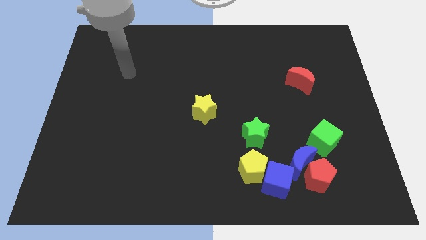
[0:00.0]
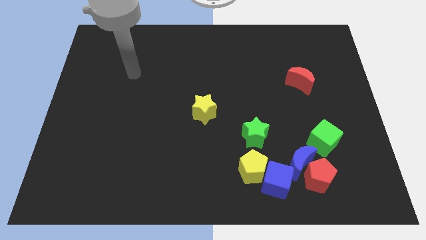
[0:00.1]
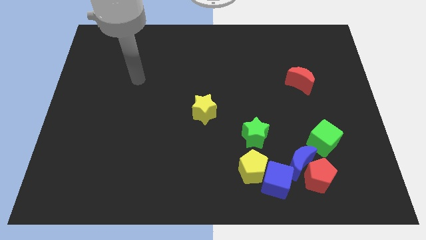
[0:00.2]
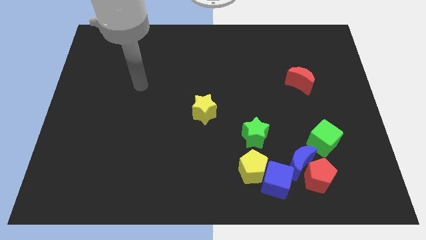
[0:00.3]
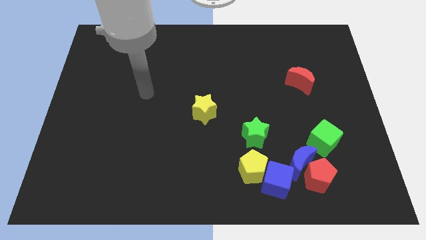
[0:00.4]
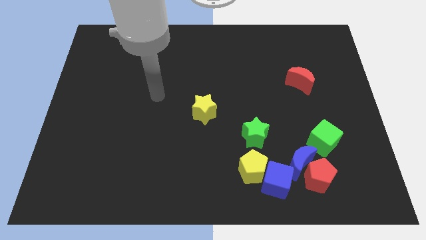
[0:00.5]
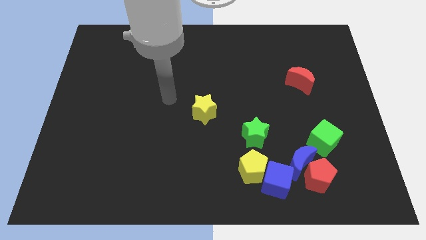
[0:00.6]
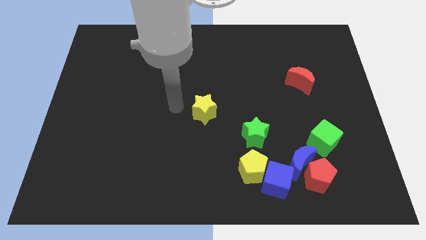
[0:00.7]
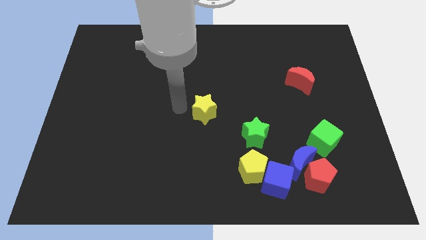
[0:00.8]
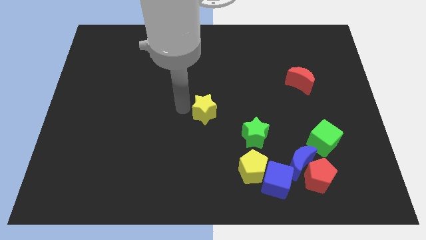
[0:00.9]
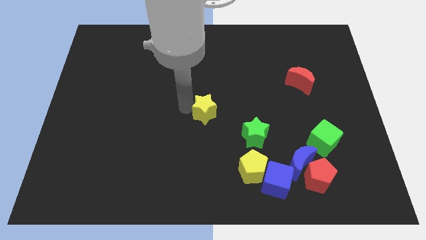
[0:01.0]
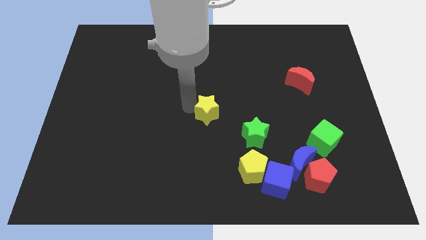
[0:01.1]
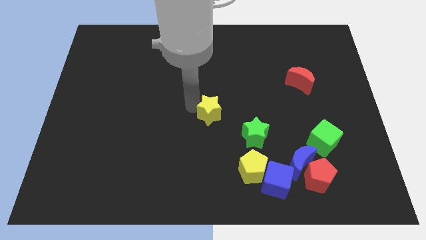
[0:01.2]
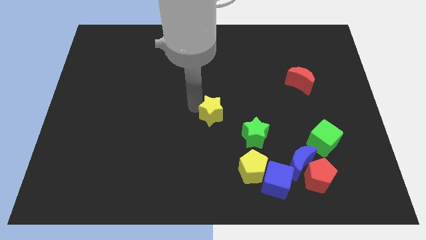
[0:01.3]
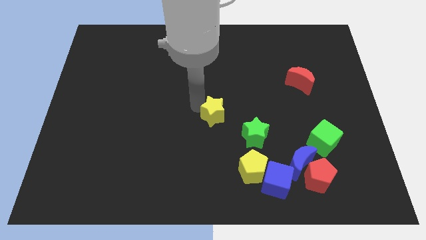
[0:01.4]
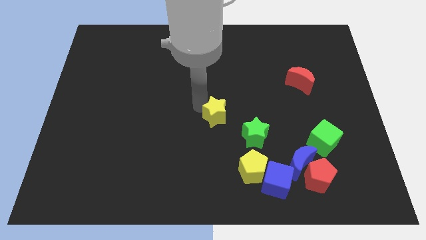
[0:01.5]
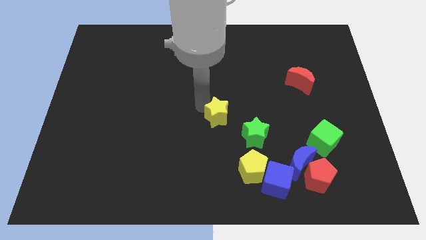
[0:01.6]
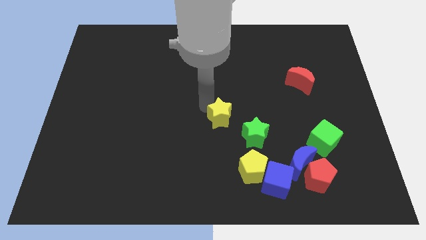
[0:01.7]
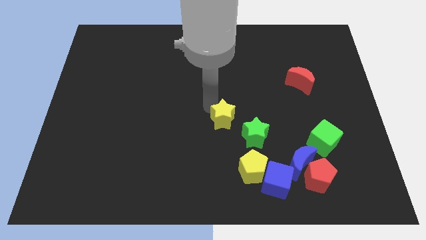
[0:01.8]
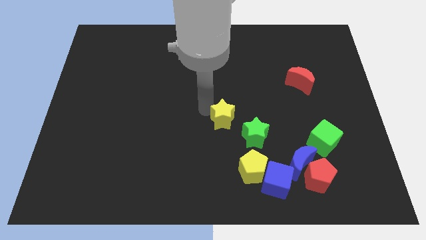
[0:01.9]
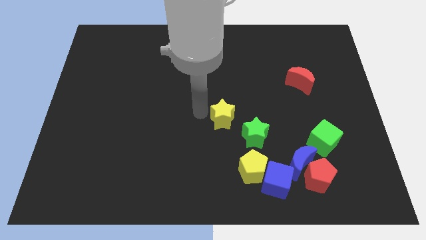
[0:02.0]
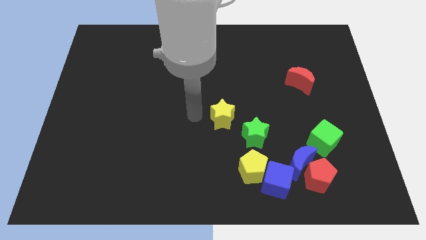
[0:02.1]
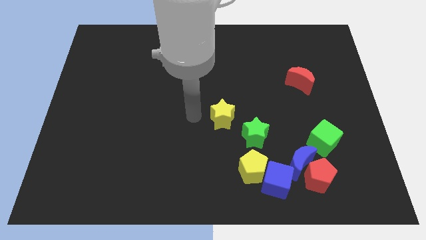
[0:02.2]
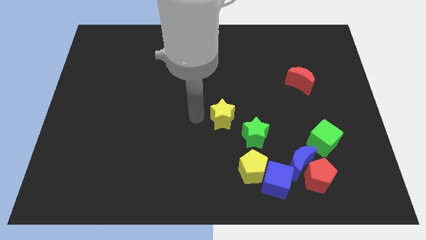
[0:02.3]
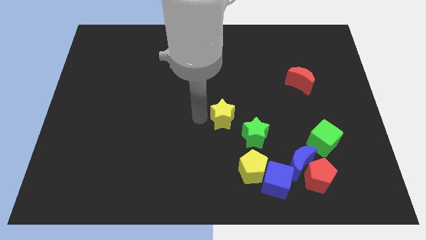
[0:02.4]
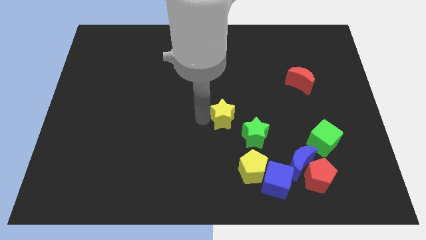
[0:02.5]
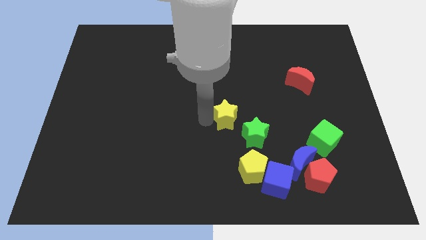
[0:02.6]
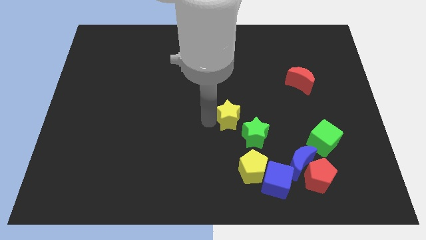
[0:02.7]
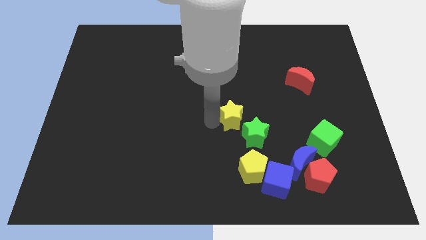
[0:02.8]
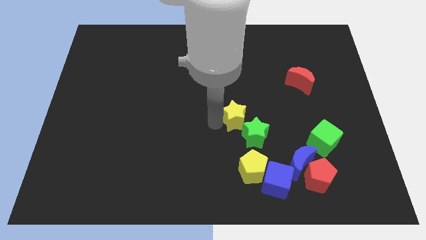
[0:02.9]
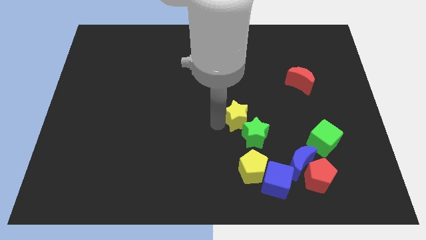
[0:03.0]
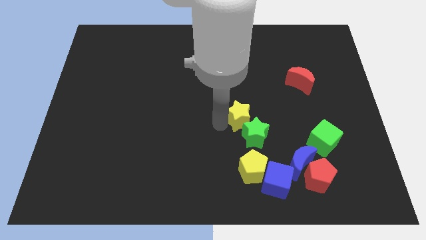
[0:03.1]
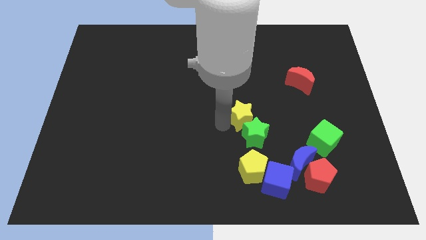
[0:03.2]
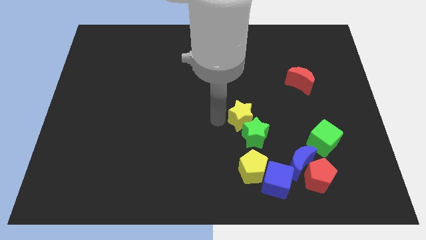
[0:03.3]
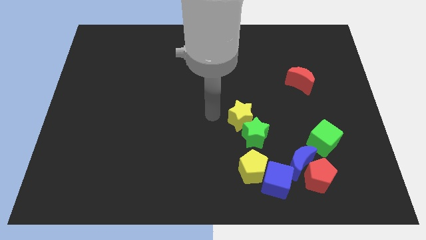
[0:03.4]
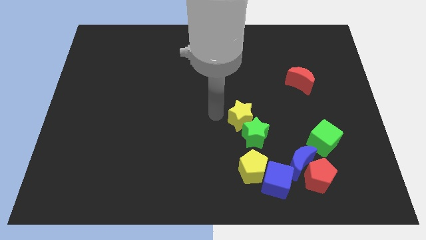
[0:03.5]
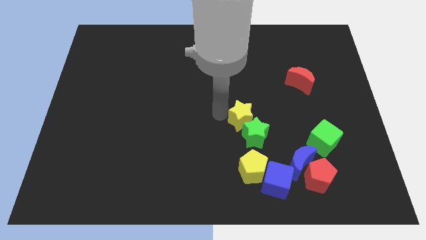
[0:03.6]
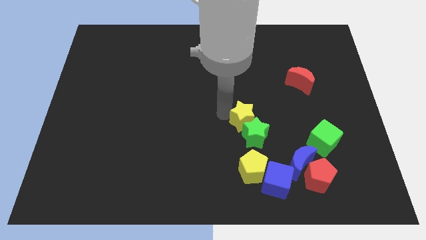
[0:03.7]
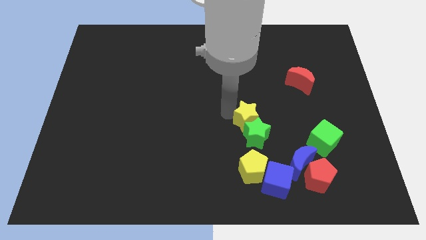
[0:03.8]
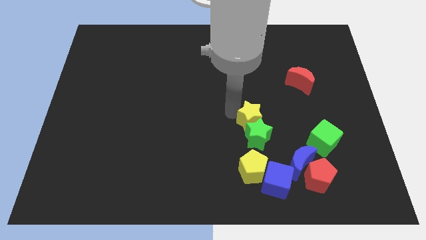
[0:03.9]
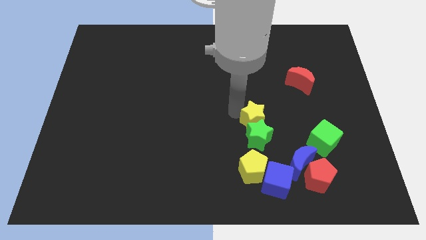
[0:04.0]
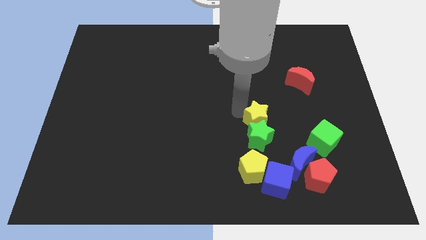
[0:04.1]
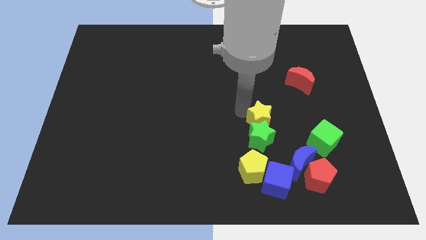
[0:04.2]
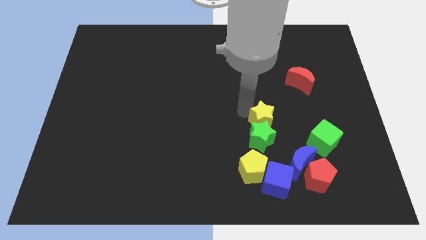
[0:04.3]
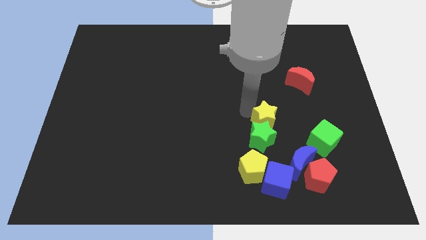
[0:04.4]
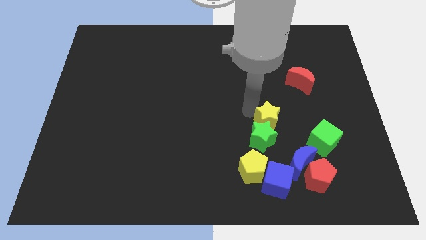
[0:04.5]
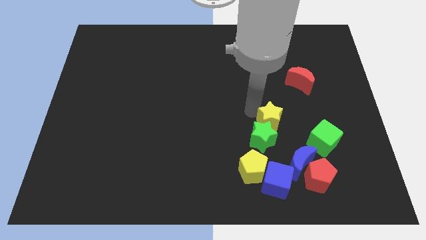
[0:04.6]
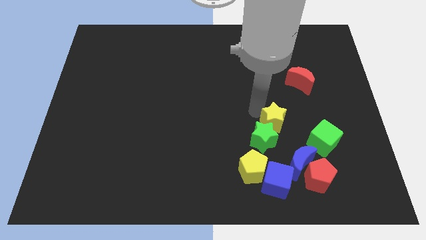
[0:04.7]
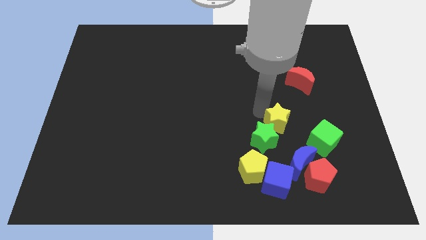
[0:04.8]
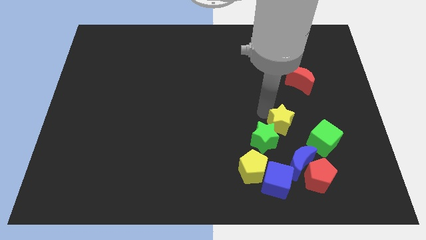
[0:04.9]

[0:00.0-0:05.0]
slide the yellow star to the right side of the green star

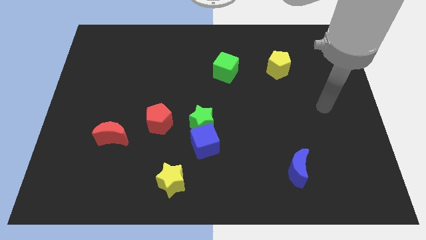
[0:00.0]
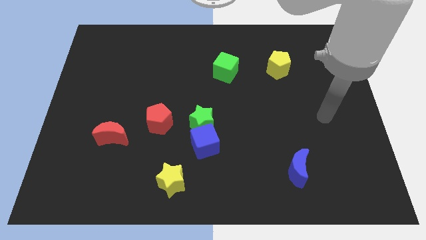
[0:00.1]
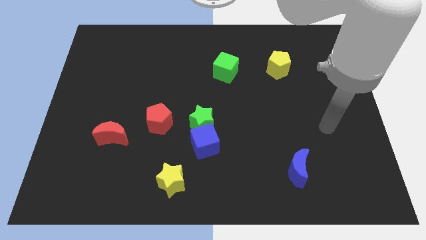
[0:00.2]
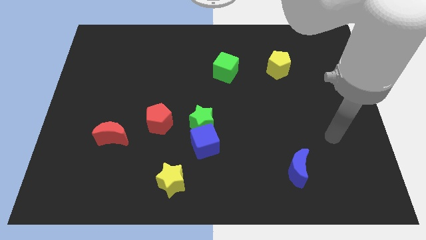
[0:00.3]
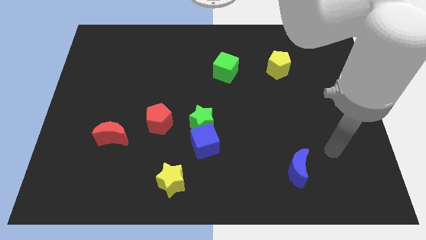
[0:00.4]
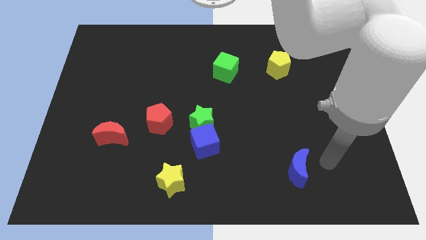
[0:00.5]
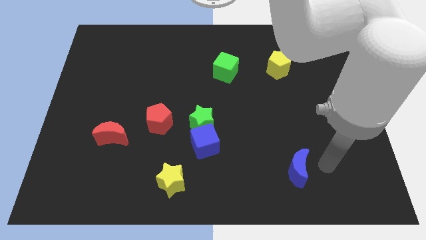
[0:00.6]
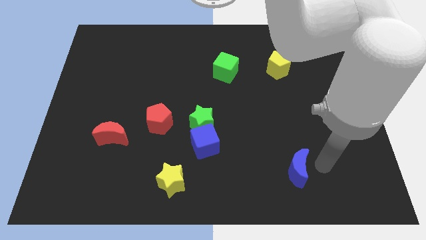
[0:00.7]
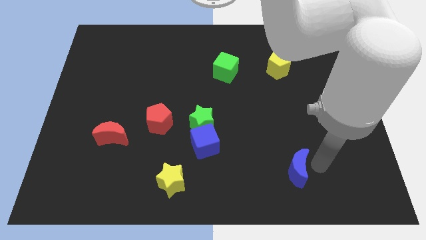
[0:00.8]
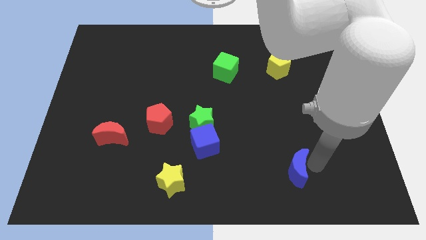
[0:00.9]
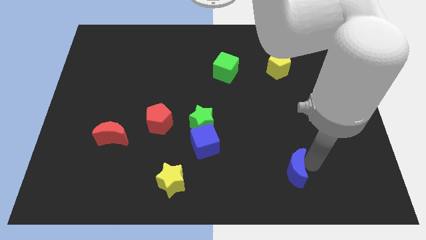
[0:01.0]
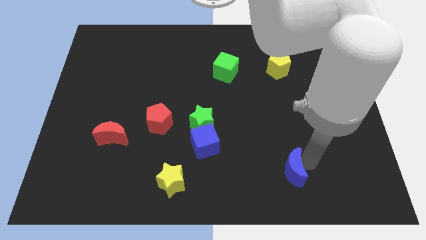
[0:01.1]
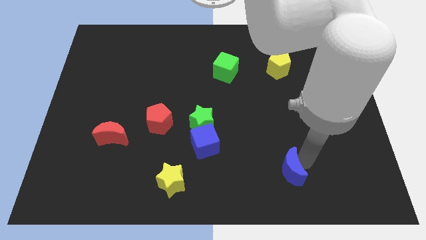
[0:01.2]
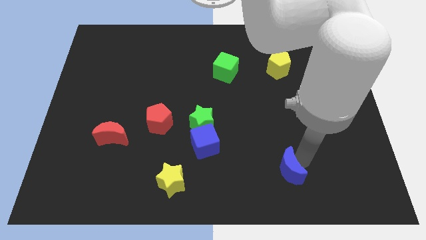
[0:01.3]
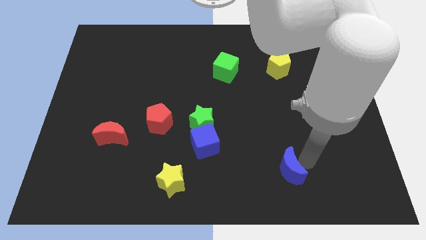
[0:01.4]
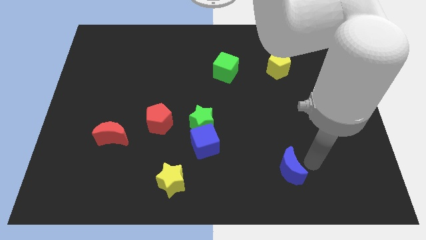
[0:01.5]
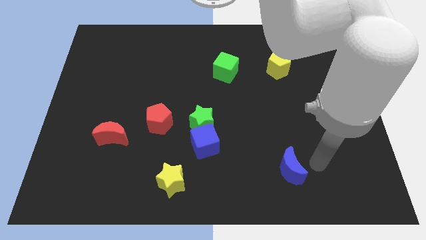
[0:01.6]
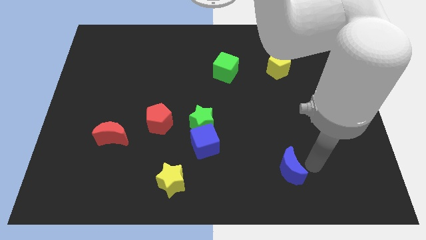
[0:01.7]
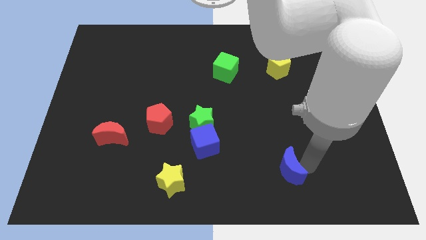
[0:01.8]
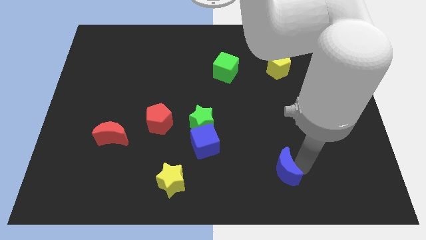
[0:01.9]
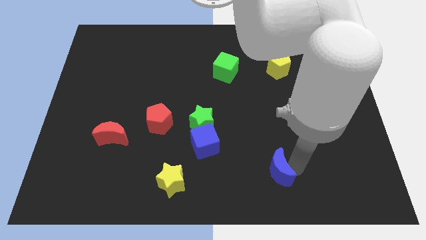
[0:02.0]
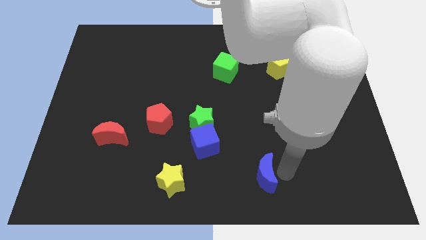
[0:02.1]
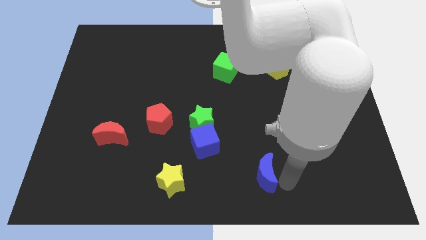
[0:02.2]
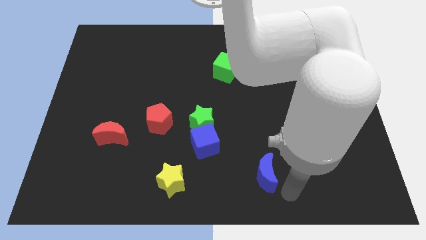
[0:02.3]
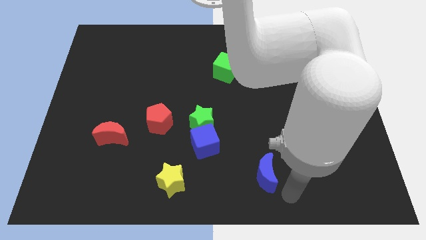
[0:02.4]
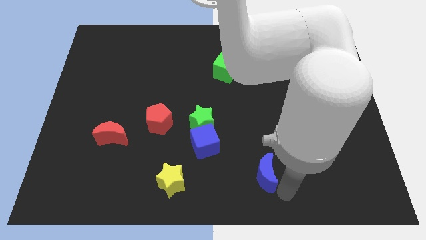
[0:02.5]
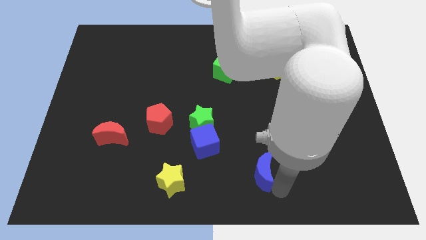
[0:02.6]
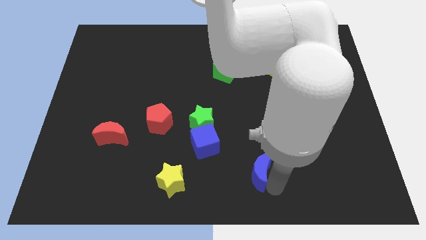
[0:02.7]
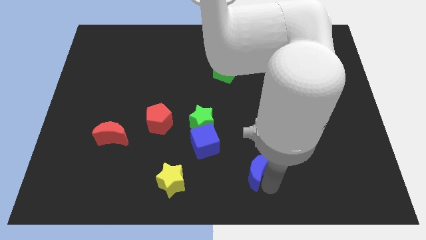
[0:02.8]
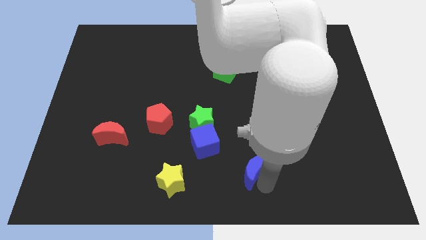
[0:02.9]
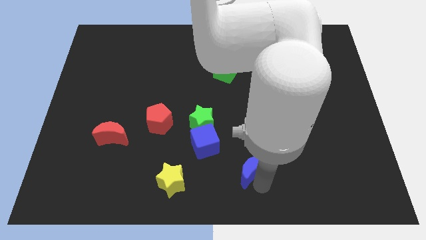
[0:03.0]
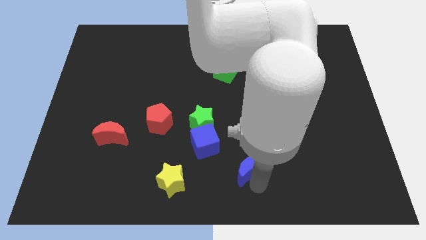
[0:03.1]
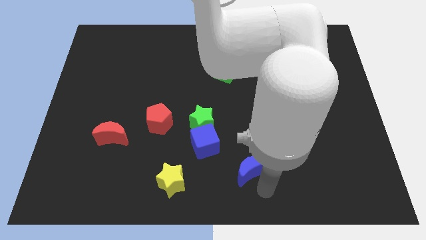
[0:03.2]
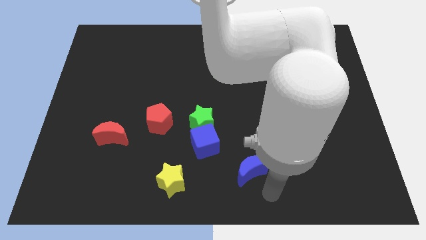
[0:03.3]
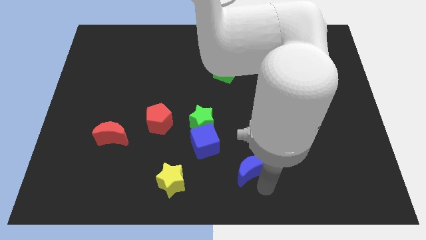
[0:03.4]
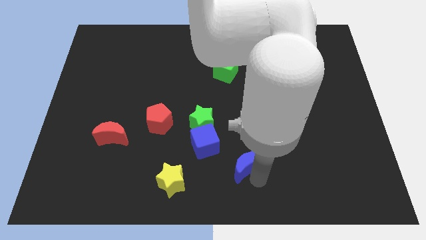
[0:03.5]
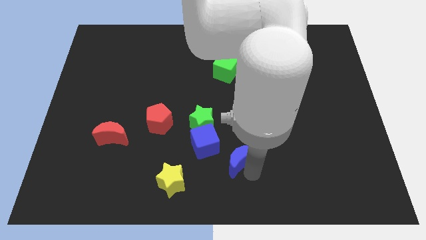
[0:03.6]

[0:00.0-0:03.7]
move the blue moon to the bottom right of the green star
